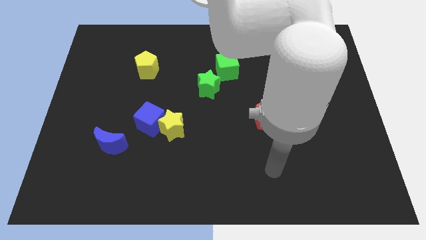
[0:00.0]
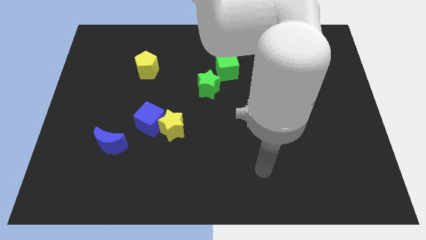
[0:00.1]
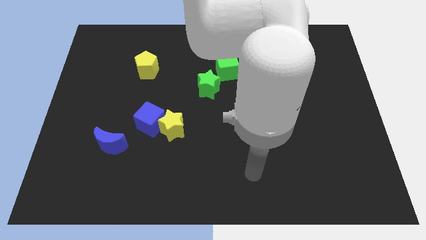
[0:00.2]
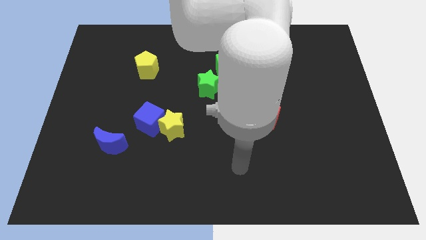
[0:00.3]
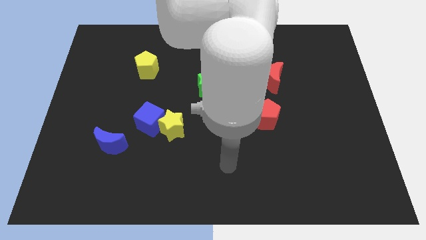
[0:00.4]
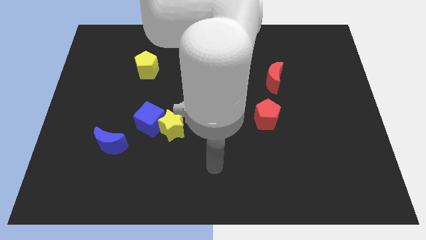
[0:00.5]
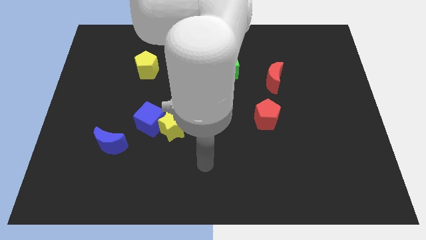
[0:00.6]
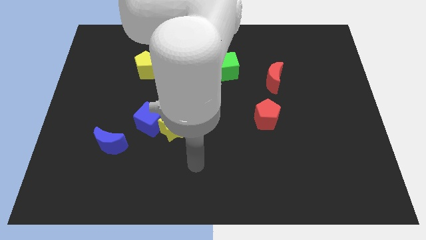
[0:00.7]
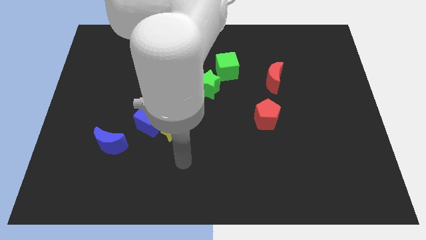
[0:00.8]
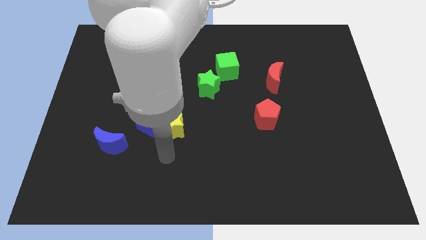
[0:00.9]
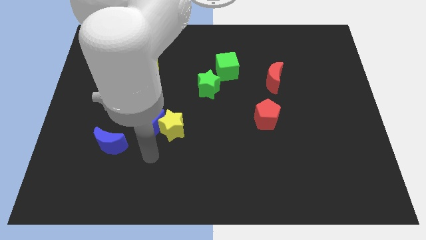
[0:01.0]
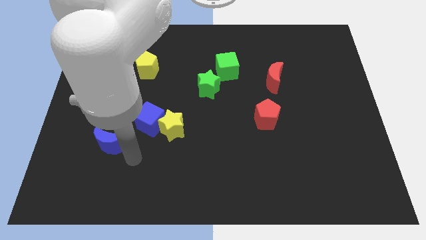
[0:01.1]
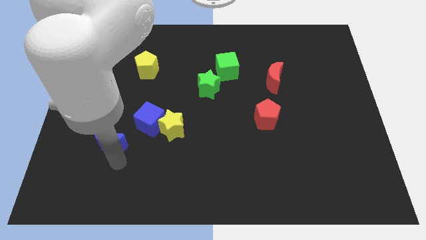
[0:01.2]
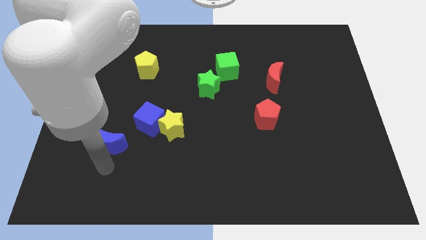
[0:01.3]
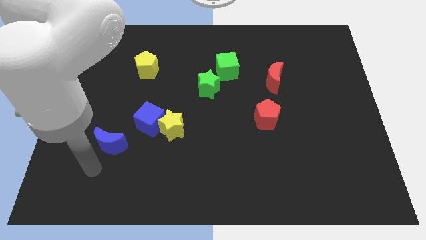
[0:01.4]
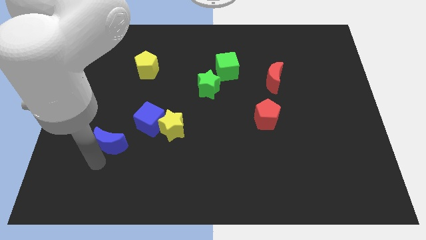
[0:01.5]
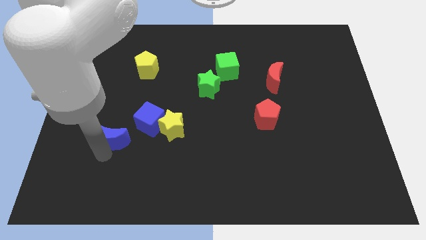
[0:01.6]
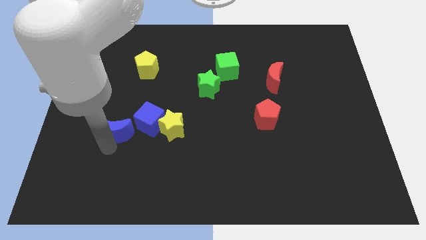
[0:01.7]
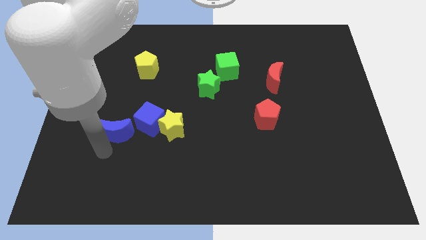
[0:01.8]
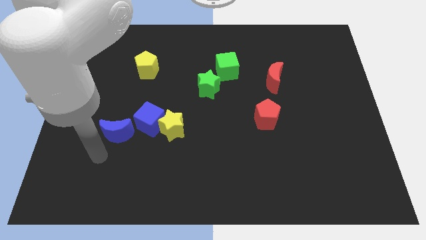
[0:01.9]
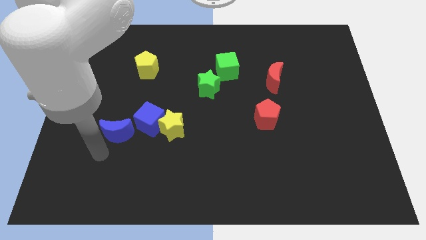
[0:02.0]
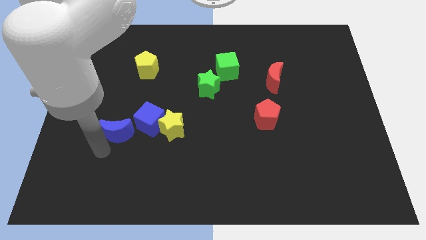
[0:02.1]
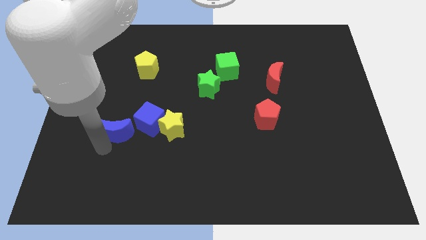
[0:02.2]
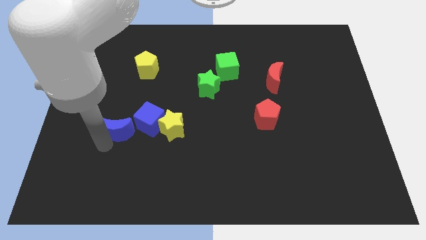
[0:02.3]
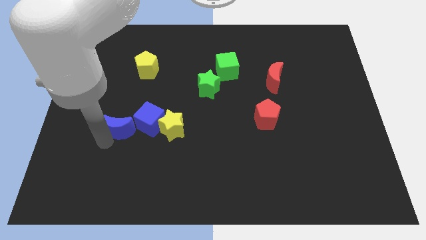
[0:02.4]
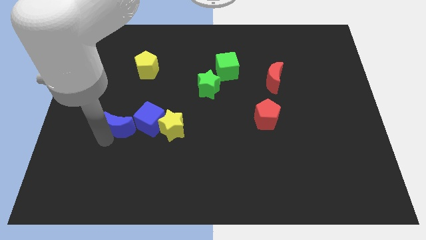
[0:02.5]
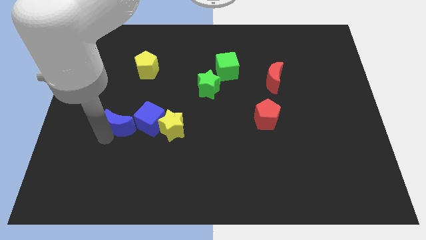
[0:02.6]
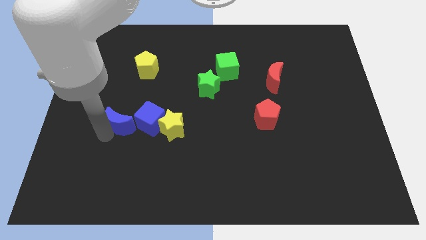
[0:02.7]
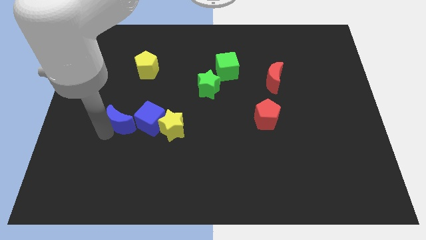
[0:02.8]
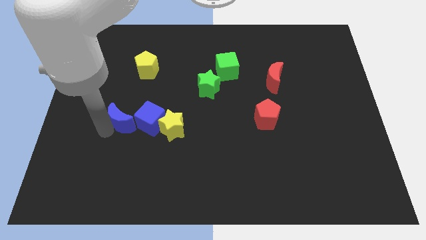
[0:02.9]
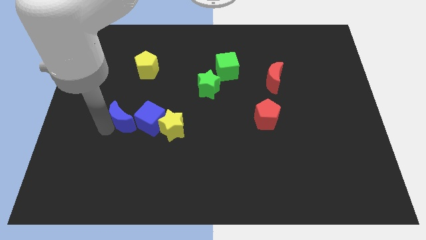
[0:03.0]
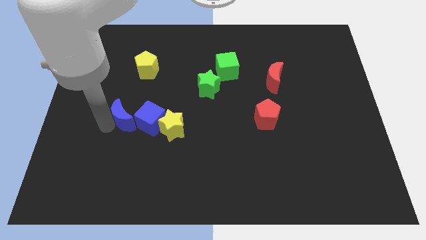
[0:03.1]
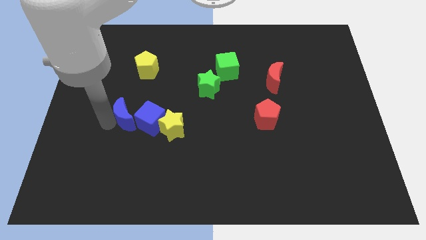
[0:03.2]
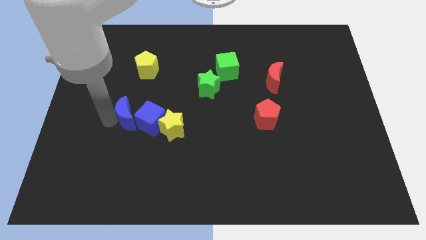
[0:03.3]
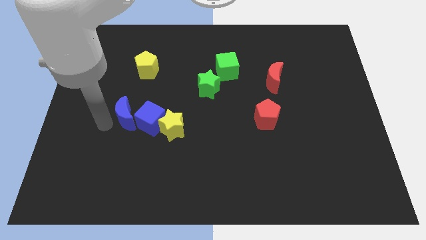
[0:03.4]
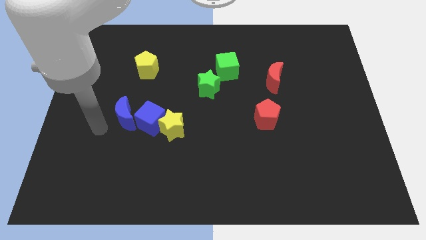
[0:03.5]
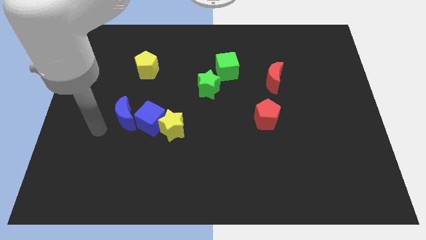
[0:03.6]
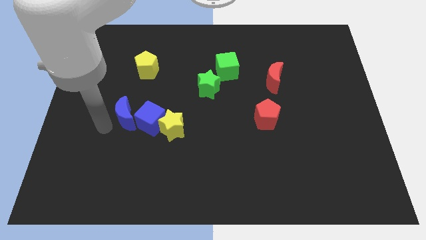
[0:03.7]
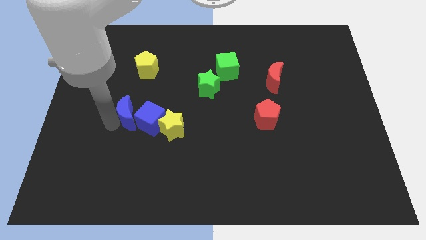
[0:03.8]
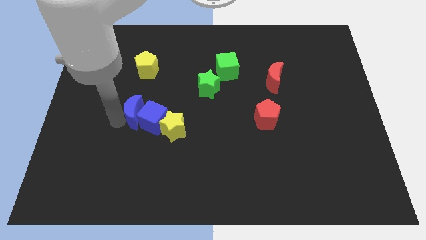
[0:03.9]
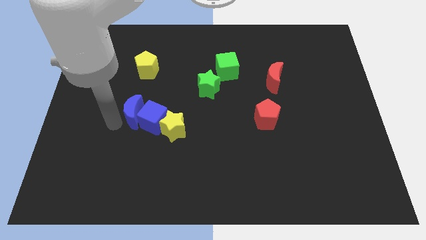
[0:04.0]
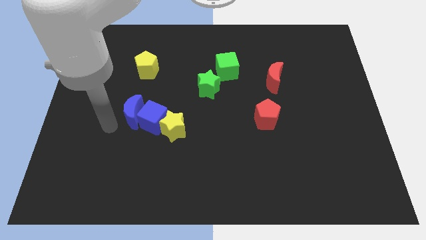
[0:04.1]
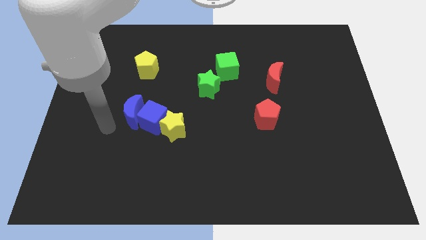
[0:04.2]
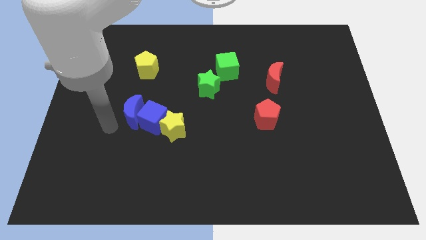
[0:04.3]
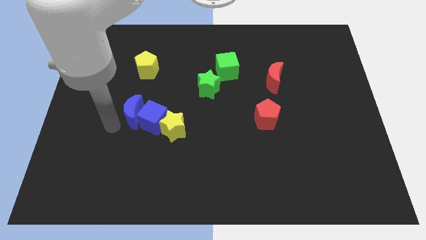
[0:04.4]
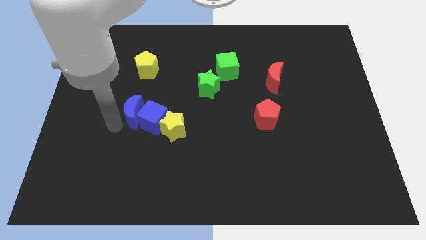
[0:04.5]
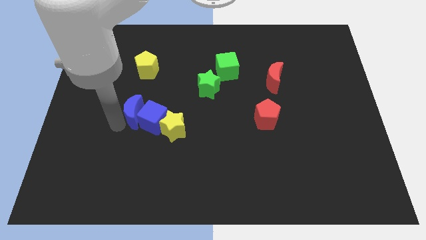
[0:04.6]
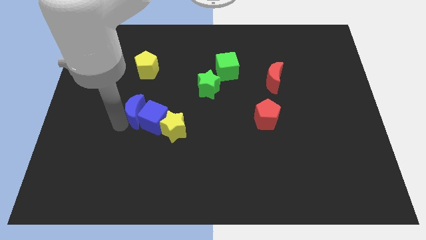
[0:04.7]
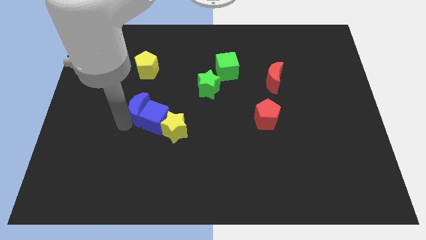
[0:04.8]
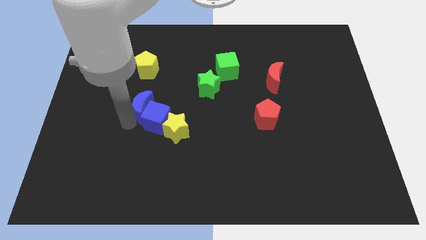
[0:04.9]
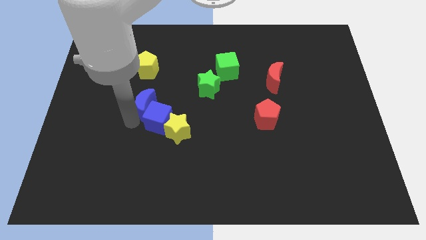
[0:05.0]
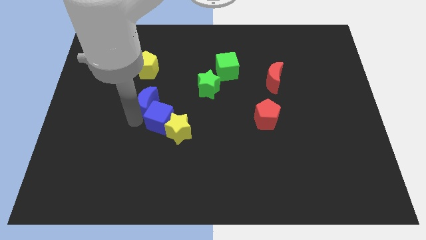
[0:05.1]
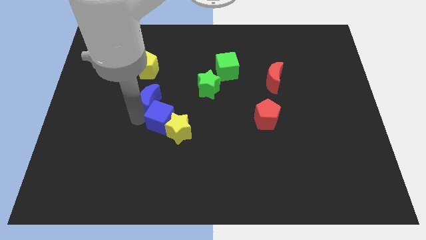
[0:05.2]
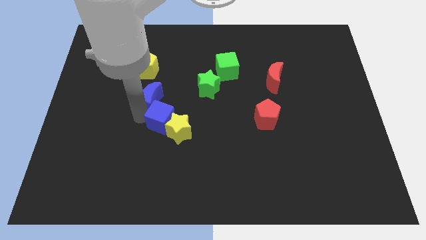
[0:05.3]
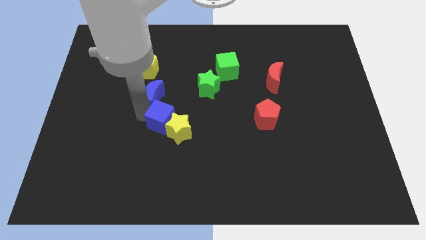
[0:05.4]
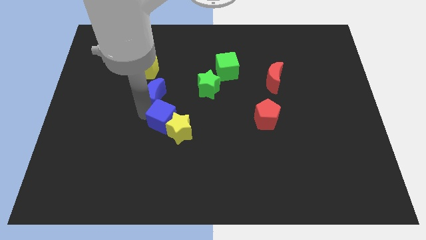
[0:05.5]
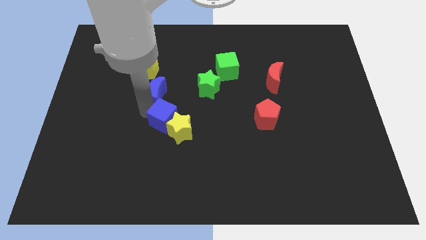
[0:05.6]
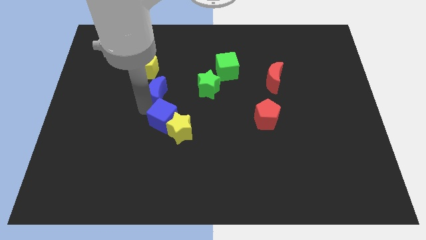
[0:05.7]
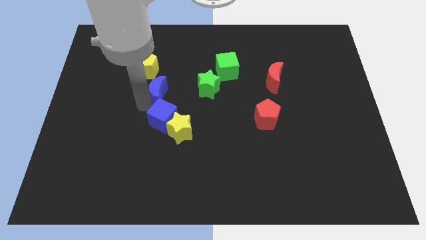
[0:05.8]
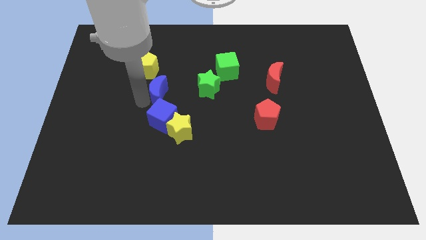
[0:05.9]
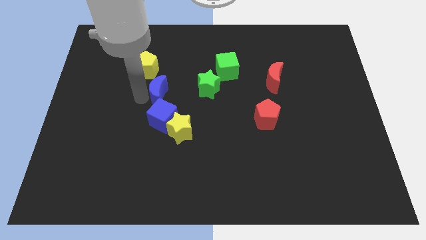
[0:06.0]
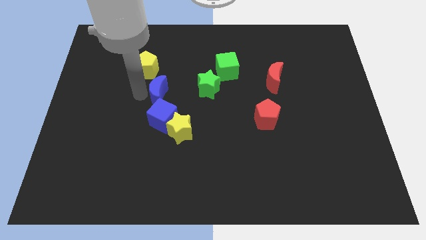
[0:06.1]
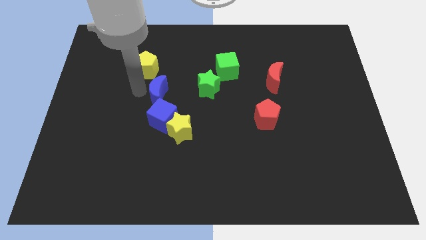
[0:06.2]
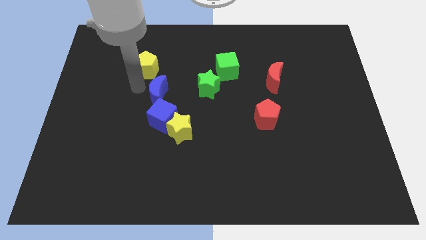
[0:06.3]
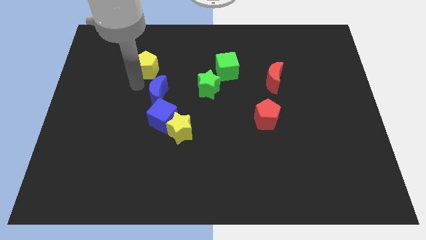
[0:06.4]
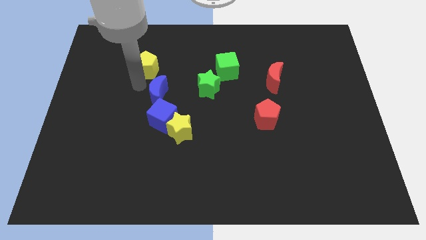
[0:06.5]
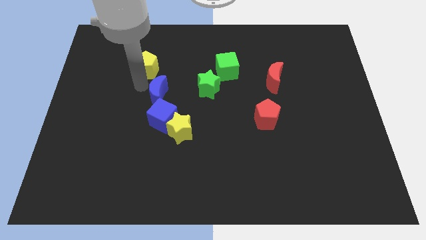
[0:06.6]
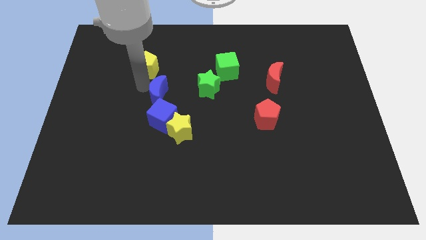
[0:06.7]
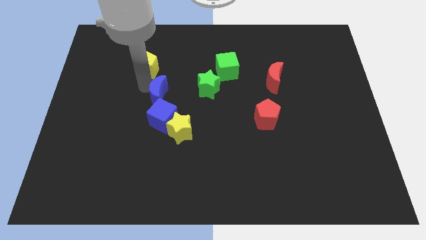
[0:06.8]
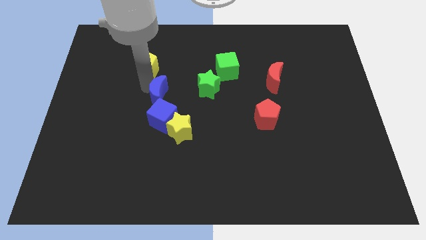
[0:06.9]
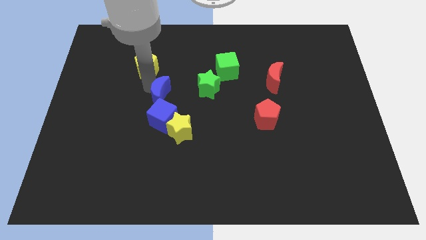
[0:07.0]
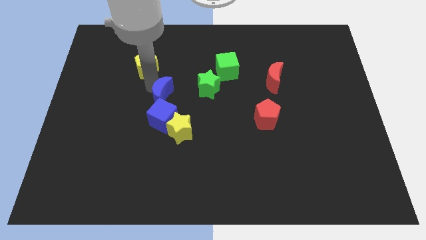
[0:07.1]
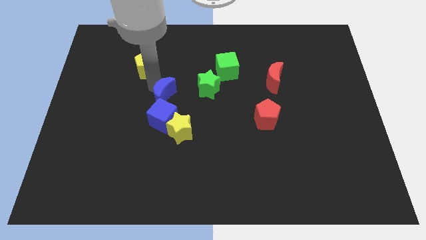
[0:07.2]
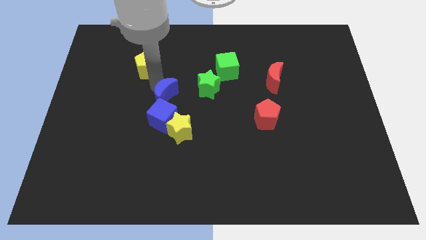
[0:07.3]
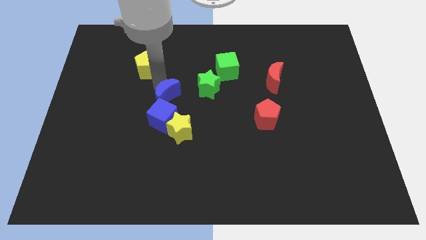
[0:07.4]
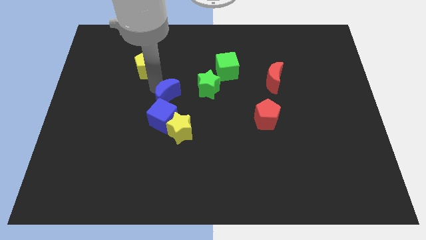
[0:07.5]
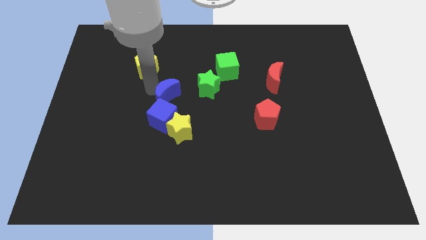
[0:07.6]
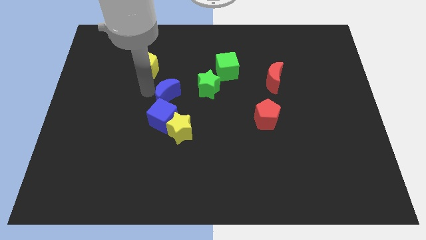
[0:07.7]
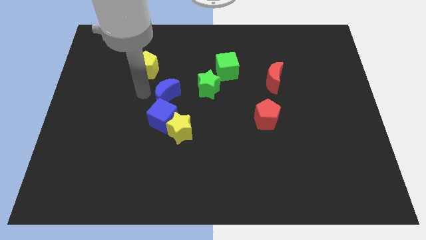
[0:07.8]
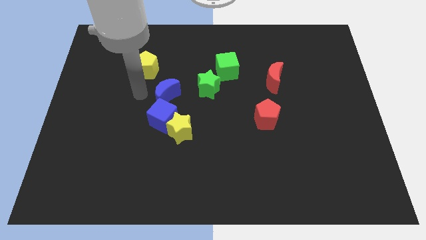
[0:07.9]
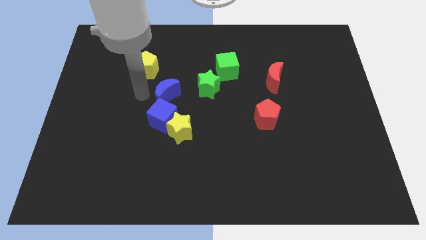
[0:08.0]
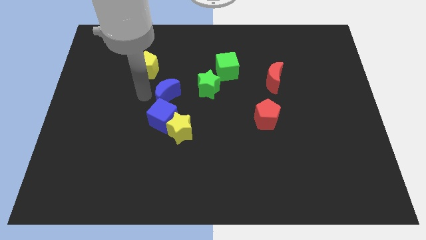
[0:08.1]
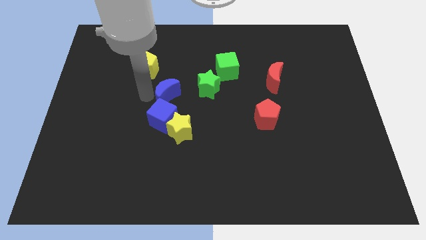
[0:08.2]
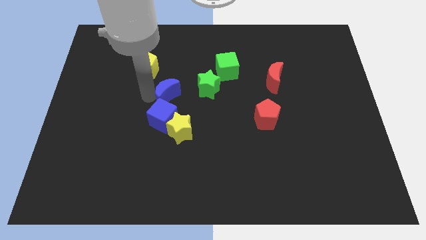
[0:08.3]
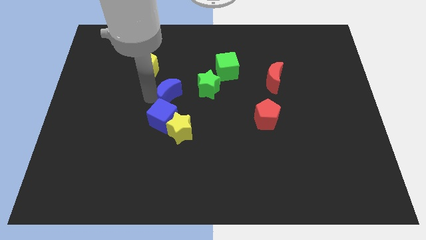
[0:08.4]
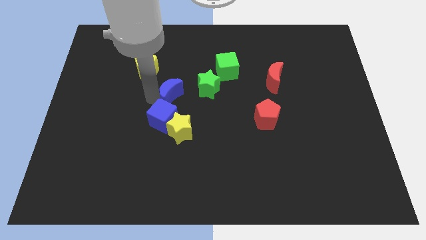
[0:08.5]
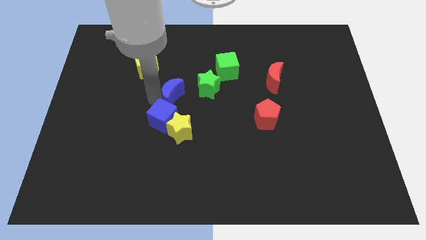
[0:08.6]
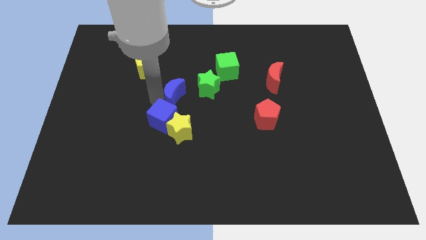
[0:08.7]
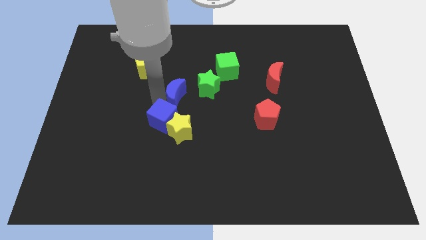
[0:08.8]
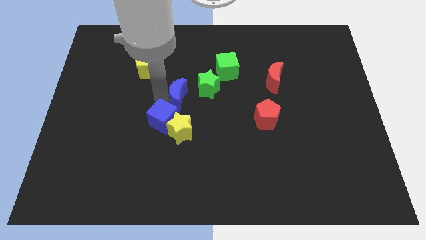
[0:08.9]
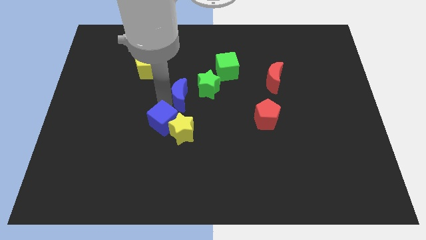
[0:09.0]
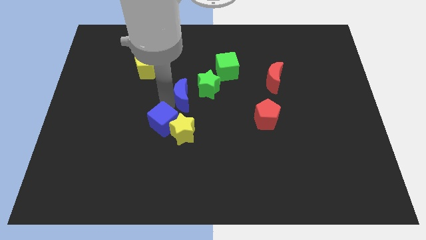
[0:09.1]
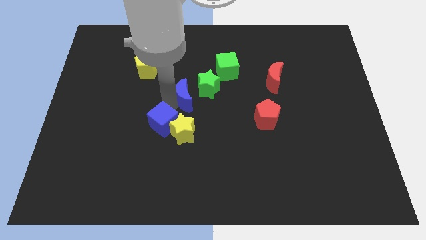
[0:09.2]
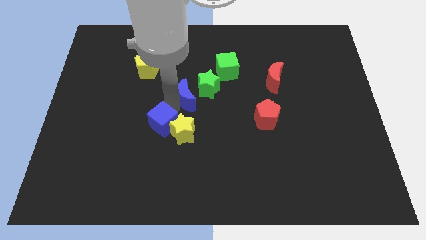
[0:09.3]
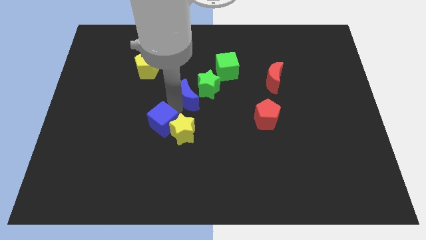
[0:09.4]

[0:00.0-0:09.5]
move the blue moon close to the green star
